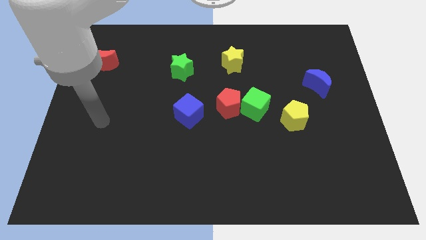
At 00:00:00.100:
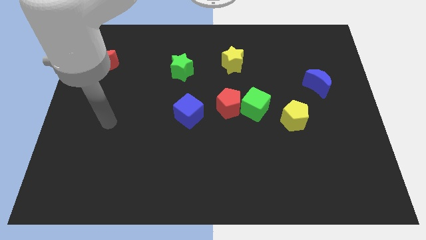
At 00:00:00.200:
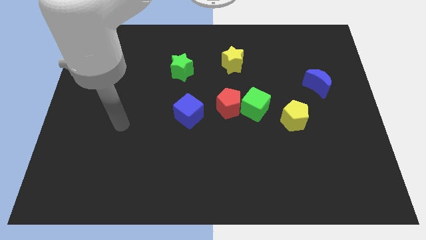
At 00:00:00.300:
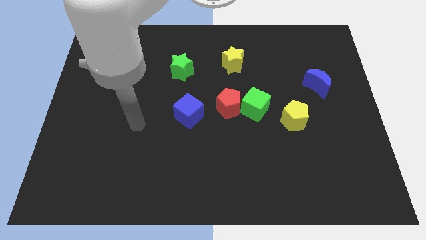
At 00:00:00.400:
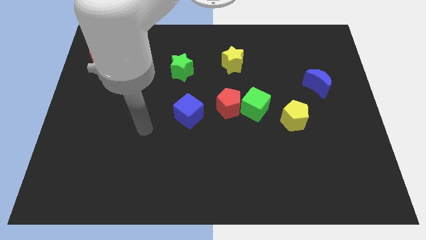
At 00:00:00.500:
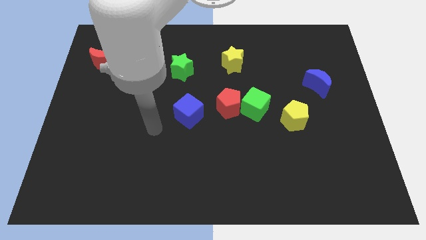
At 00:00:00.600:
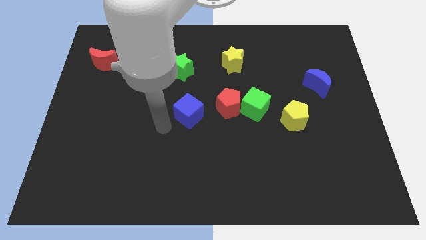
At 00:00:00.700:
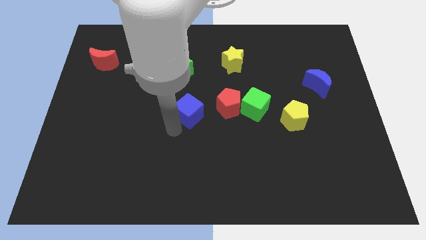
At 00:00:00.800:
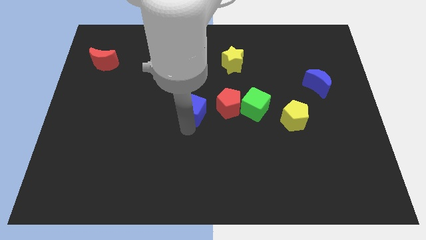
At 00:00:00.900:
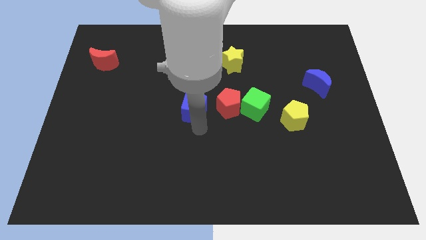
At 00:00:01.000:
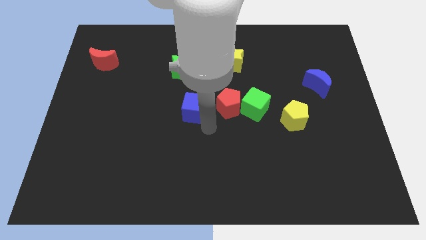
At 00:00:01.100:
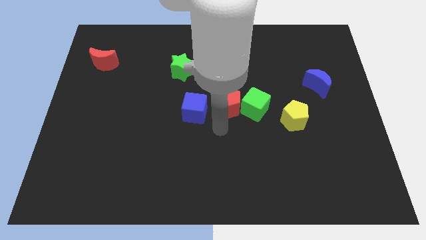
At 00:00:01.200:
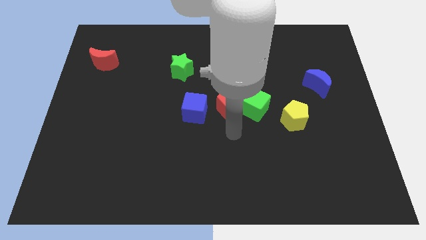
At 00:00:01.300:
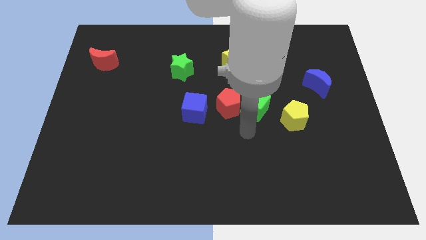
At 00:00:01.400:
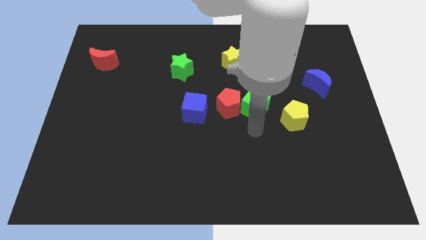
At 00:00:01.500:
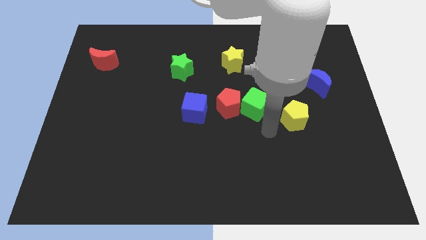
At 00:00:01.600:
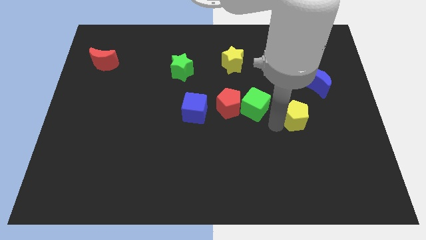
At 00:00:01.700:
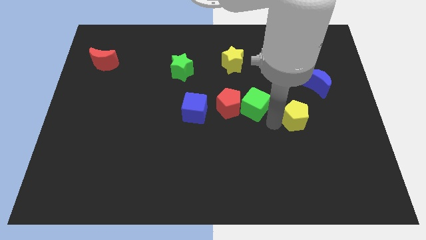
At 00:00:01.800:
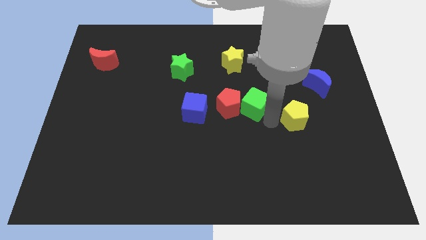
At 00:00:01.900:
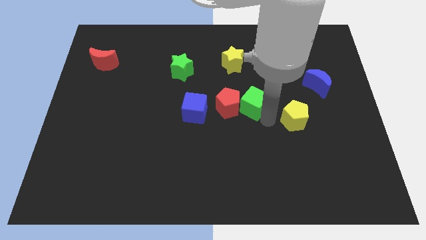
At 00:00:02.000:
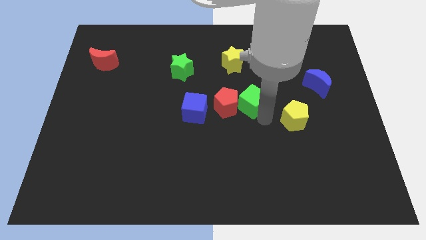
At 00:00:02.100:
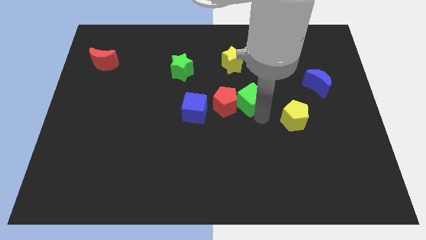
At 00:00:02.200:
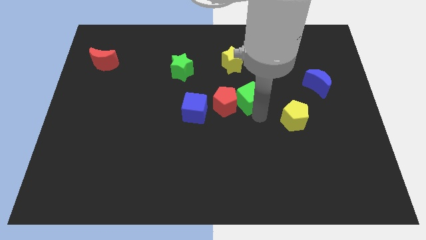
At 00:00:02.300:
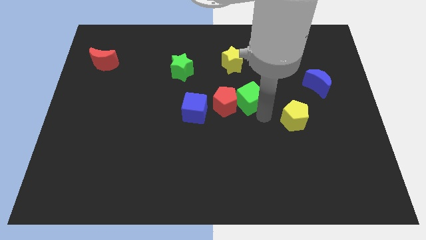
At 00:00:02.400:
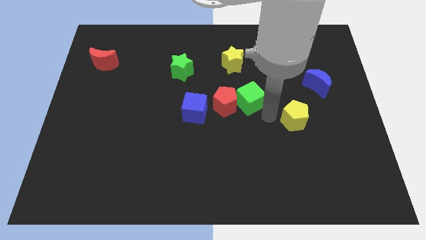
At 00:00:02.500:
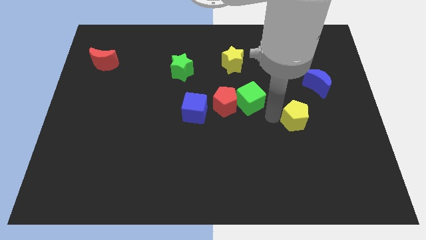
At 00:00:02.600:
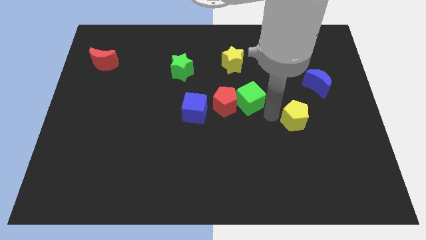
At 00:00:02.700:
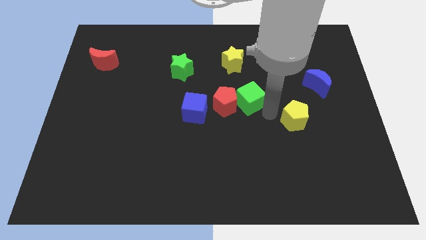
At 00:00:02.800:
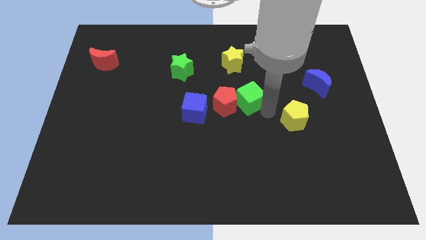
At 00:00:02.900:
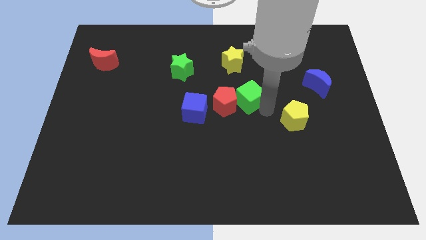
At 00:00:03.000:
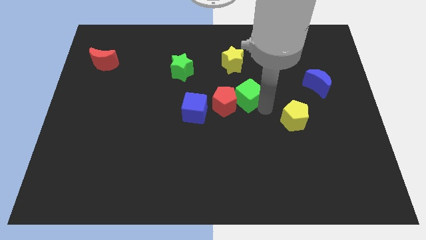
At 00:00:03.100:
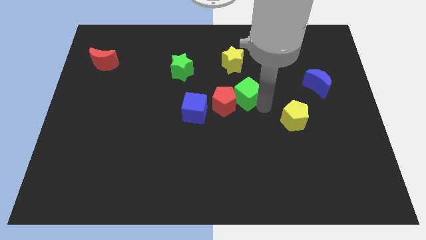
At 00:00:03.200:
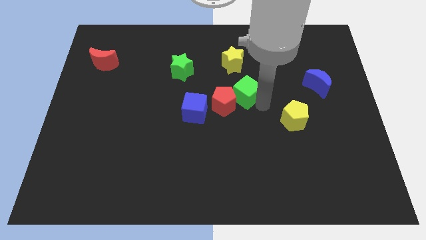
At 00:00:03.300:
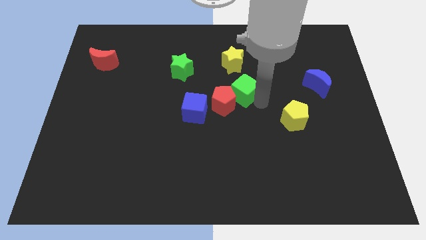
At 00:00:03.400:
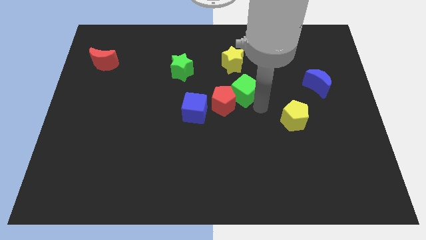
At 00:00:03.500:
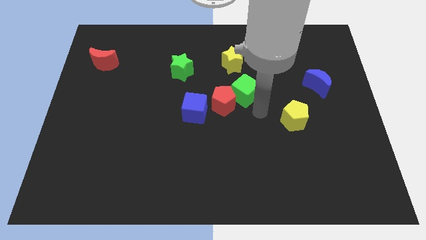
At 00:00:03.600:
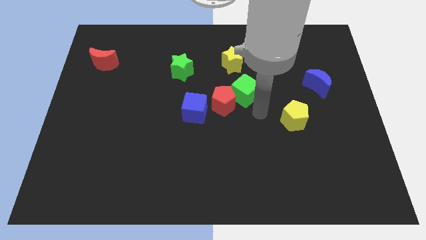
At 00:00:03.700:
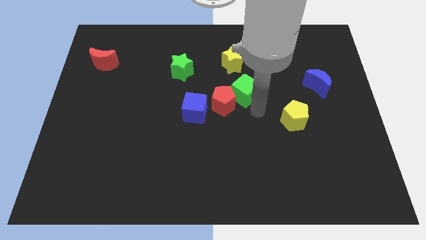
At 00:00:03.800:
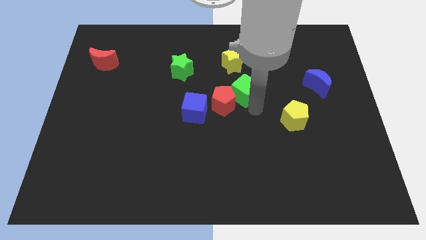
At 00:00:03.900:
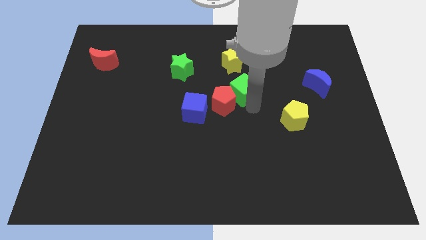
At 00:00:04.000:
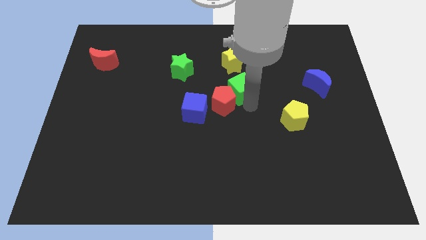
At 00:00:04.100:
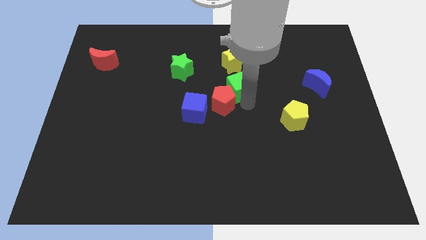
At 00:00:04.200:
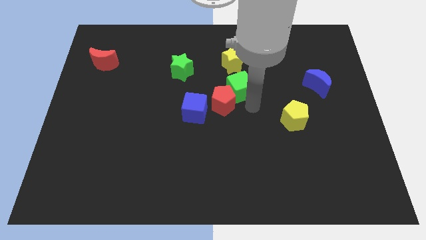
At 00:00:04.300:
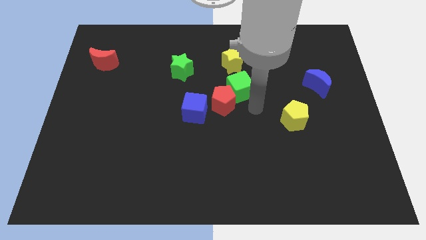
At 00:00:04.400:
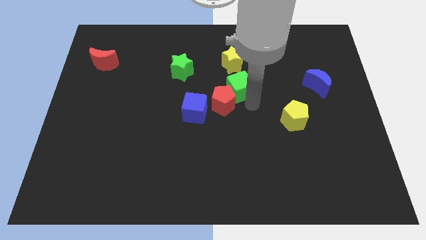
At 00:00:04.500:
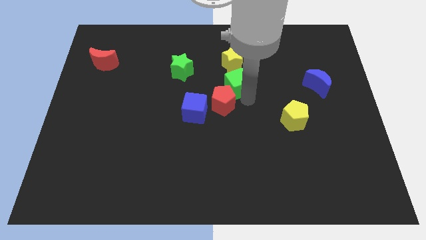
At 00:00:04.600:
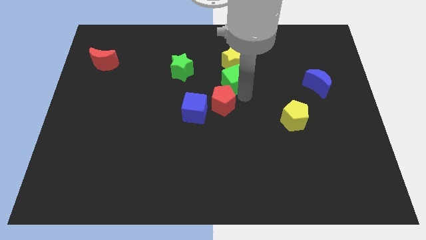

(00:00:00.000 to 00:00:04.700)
pull the green cube apart from the red pentagon and yellow pentagon

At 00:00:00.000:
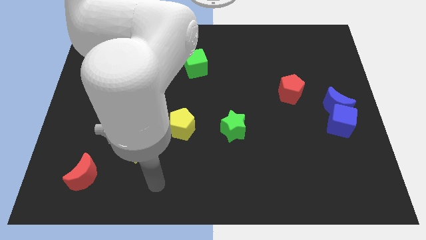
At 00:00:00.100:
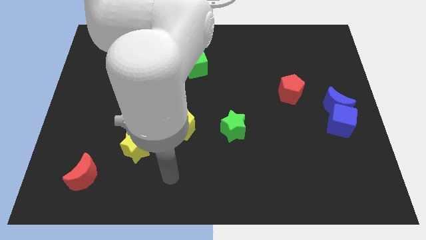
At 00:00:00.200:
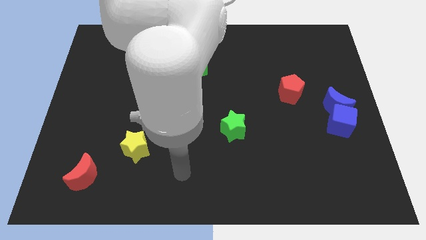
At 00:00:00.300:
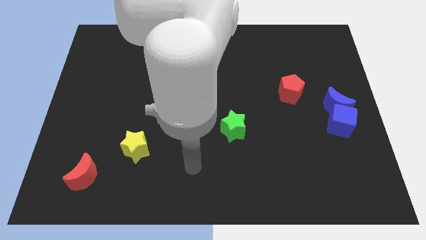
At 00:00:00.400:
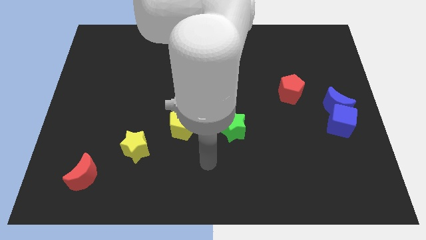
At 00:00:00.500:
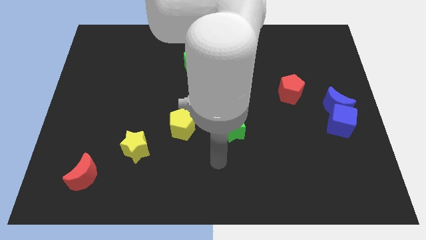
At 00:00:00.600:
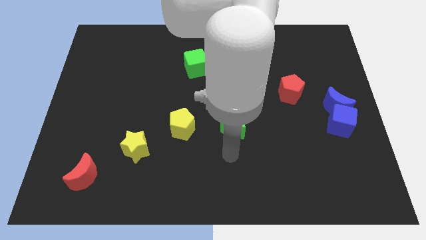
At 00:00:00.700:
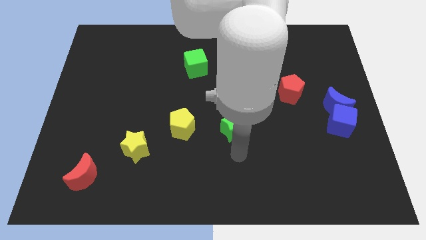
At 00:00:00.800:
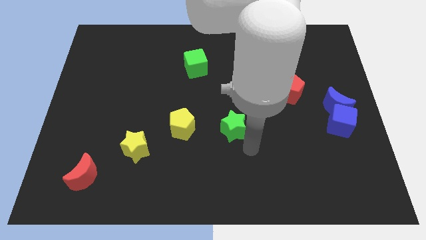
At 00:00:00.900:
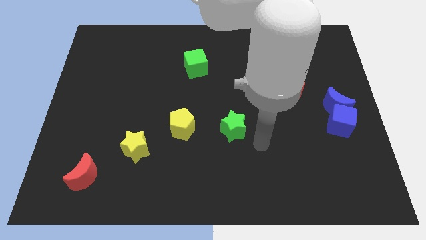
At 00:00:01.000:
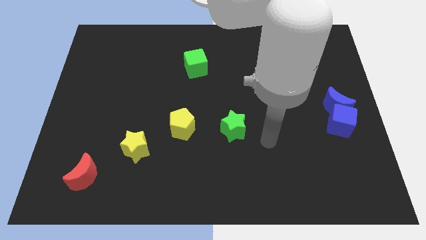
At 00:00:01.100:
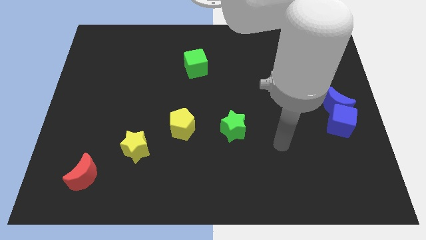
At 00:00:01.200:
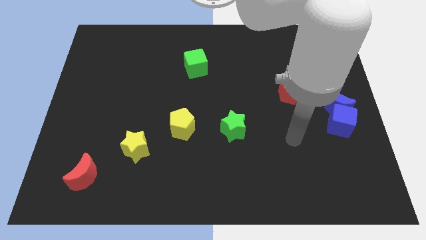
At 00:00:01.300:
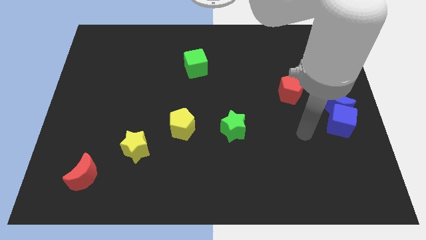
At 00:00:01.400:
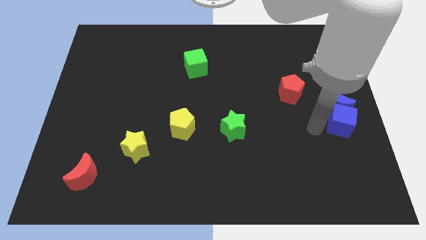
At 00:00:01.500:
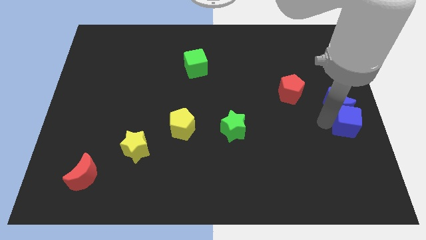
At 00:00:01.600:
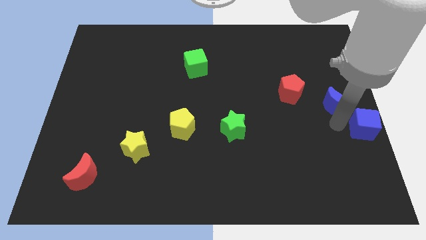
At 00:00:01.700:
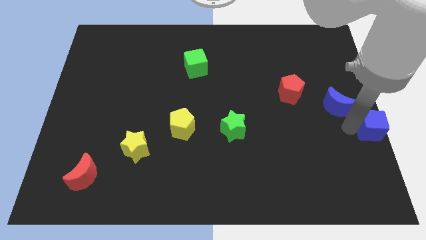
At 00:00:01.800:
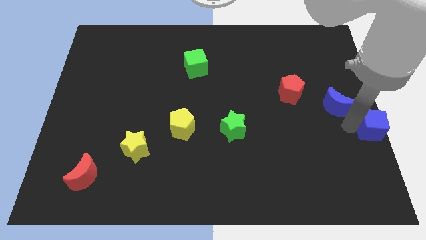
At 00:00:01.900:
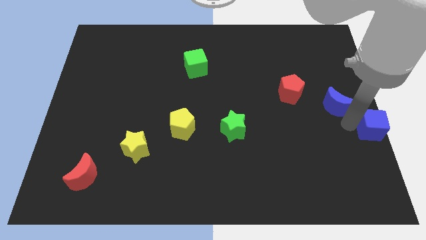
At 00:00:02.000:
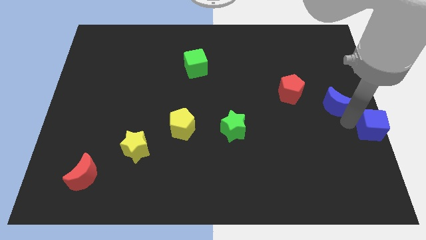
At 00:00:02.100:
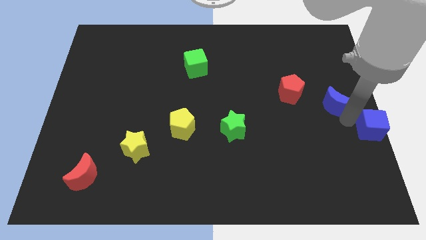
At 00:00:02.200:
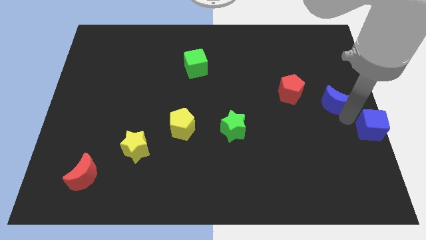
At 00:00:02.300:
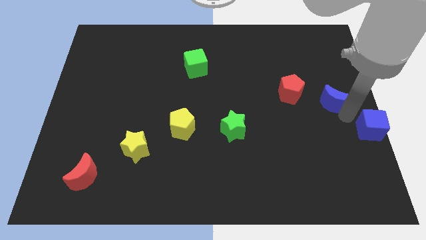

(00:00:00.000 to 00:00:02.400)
separate the blue moon from the blue cube

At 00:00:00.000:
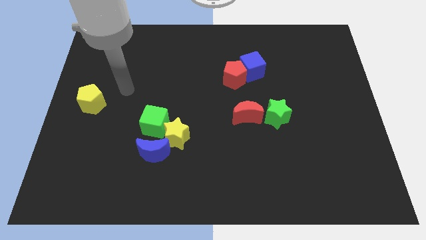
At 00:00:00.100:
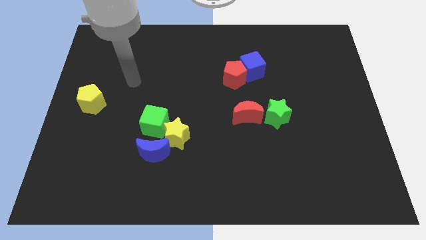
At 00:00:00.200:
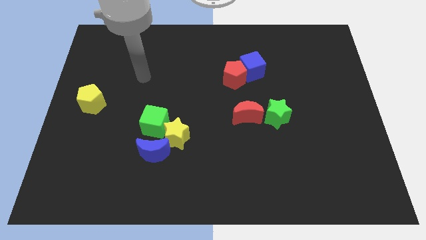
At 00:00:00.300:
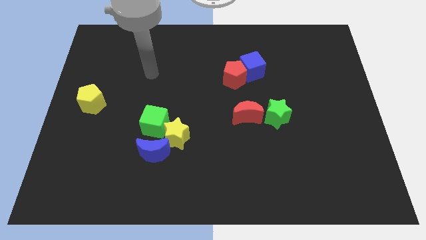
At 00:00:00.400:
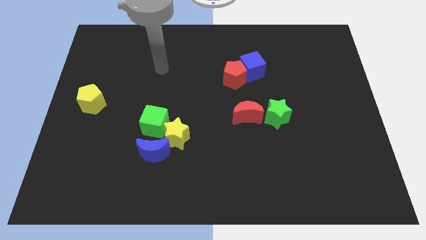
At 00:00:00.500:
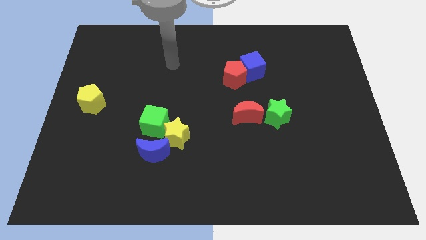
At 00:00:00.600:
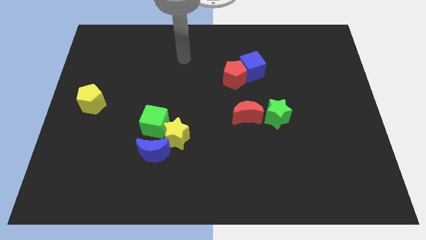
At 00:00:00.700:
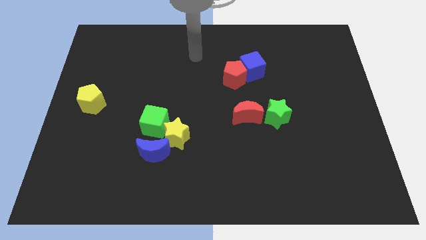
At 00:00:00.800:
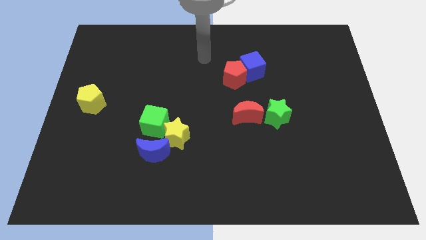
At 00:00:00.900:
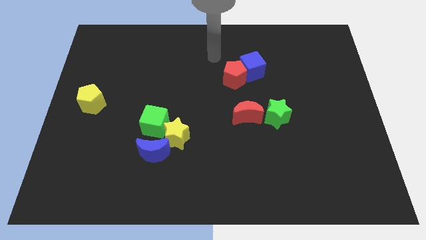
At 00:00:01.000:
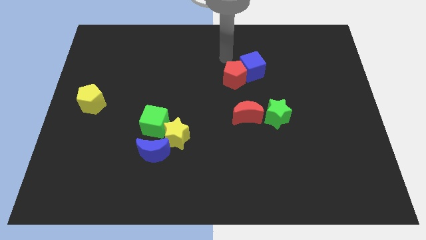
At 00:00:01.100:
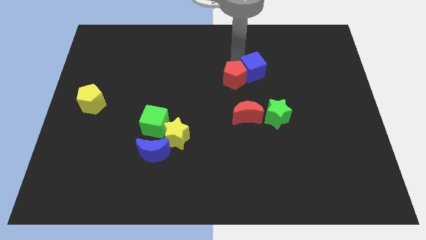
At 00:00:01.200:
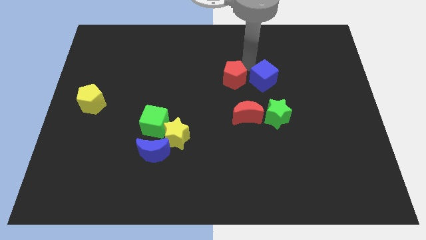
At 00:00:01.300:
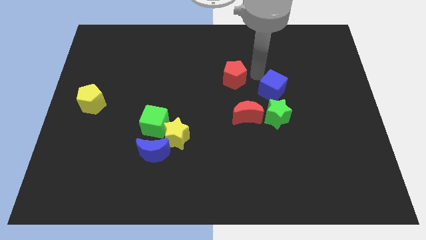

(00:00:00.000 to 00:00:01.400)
pull the red pentagon apart from the blue cube

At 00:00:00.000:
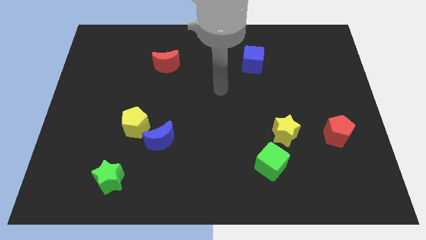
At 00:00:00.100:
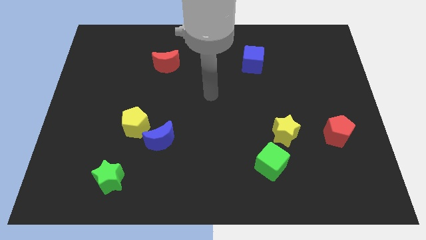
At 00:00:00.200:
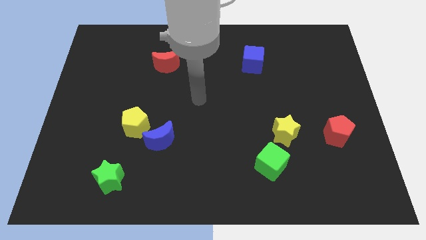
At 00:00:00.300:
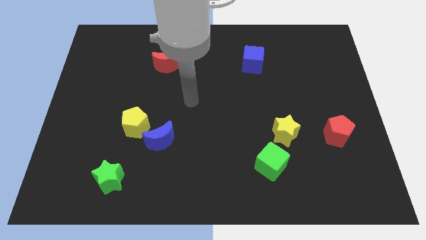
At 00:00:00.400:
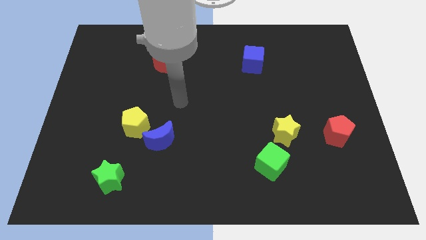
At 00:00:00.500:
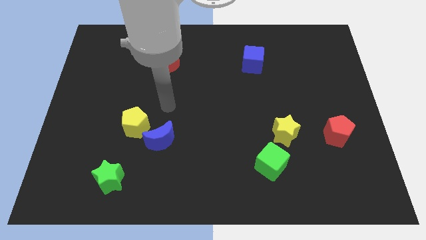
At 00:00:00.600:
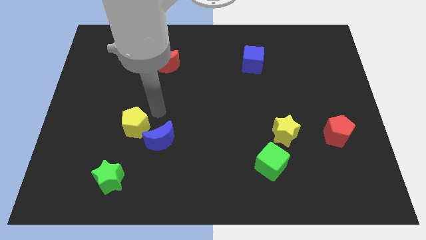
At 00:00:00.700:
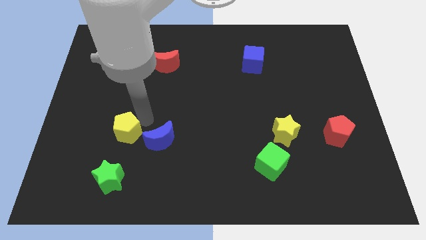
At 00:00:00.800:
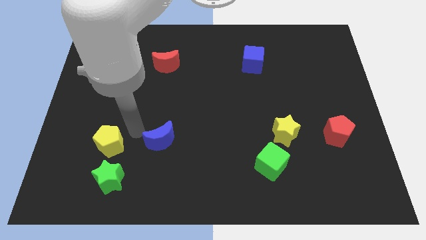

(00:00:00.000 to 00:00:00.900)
move the blue moon away from the yellow pentagon

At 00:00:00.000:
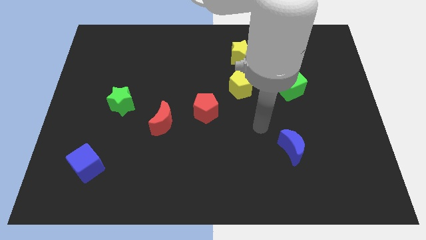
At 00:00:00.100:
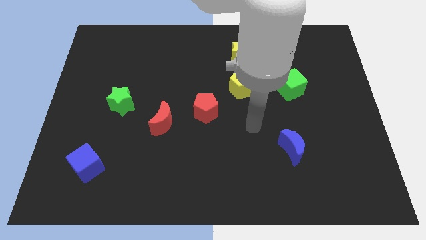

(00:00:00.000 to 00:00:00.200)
separate the red moon from the red pentagon
